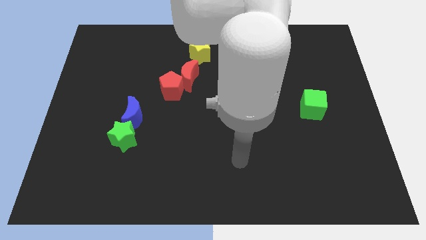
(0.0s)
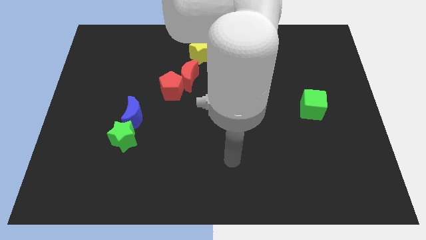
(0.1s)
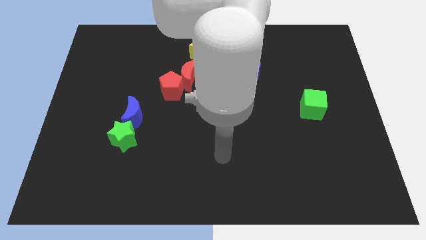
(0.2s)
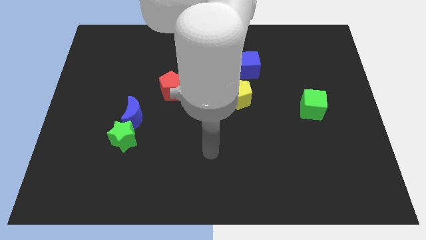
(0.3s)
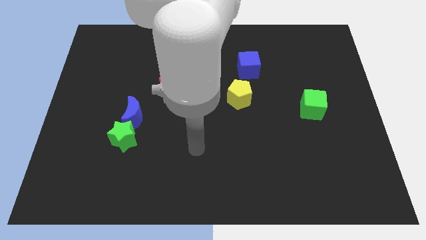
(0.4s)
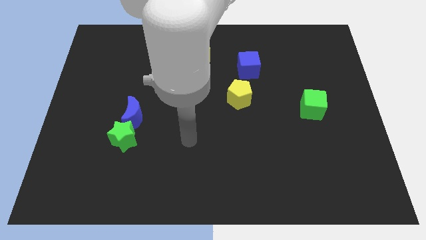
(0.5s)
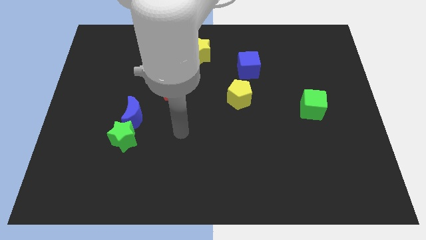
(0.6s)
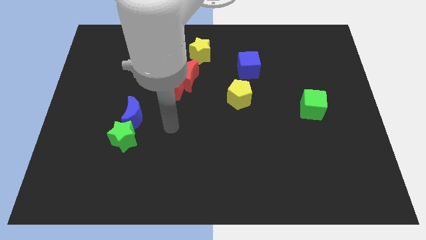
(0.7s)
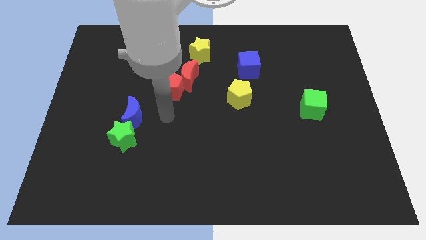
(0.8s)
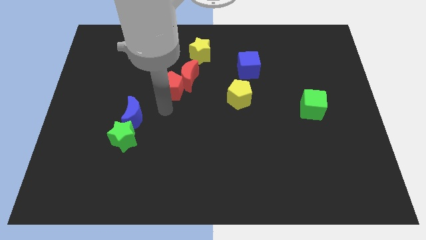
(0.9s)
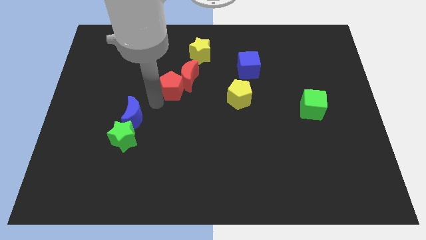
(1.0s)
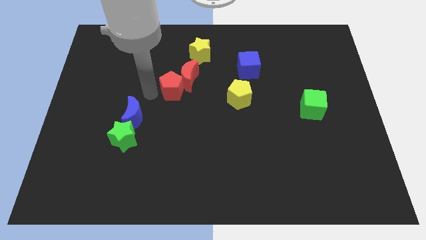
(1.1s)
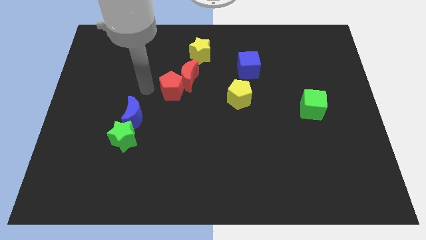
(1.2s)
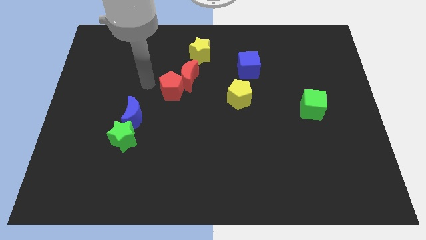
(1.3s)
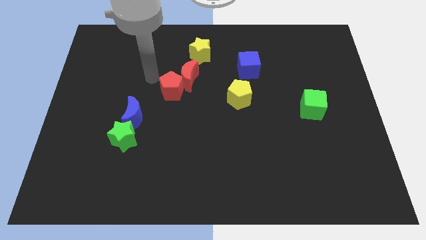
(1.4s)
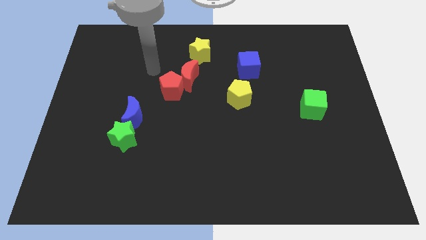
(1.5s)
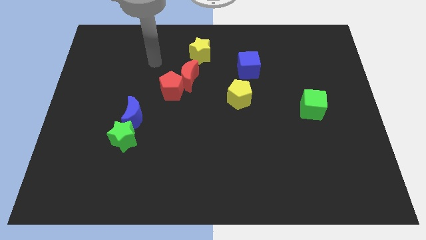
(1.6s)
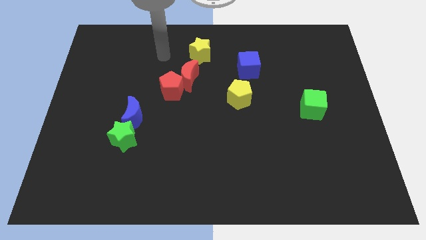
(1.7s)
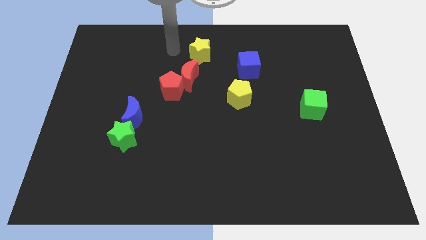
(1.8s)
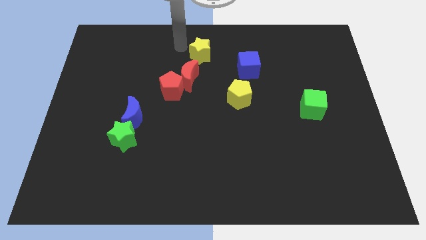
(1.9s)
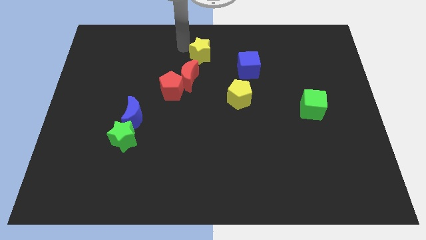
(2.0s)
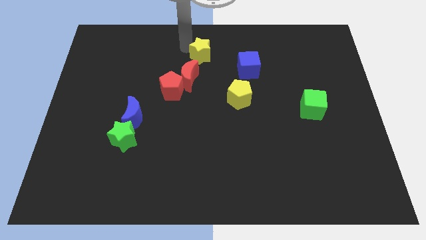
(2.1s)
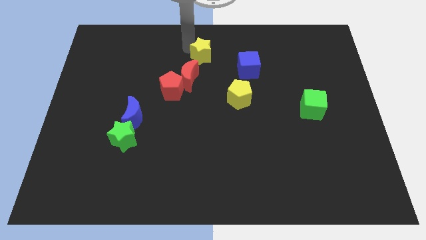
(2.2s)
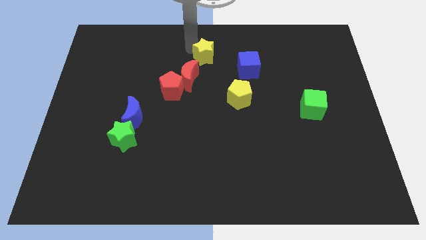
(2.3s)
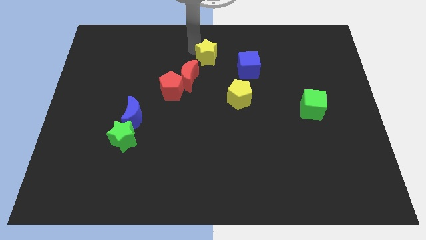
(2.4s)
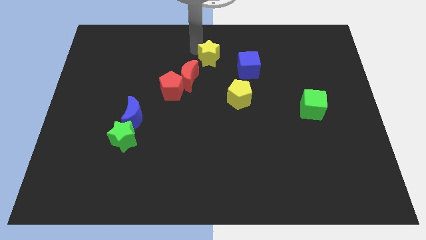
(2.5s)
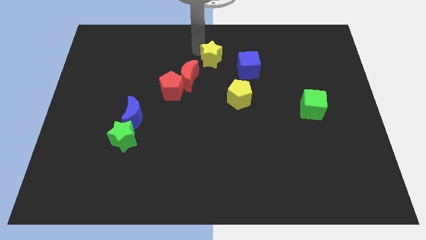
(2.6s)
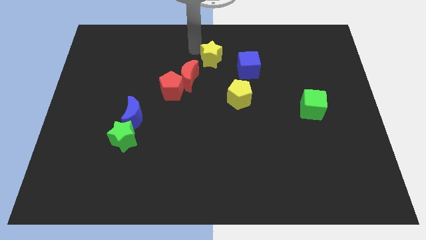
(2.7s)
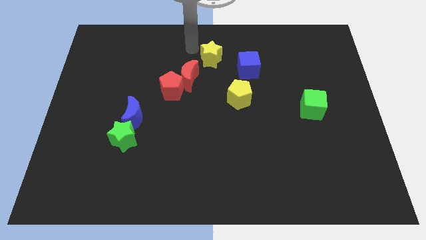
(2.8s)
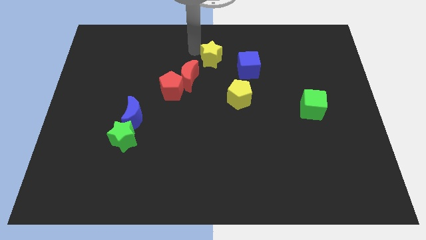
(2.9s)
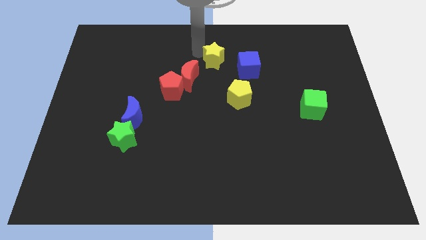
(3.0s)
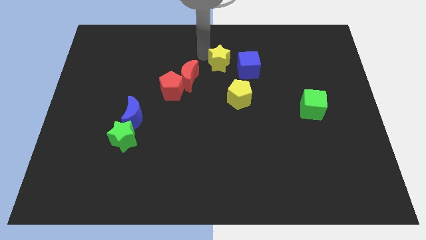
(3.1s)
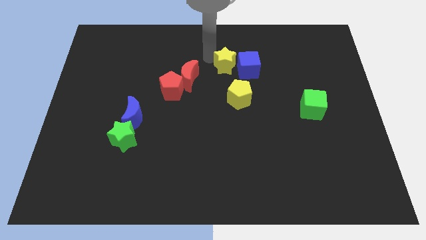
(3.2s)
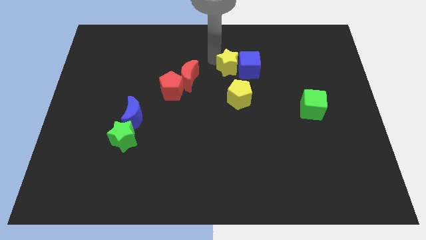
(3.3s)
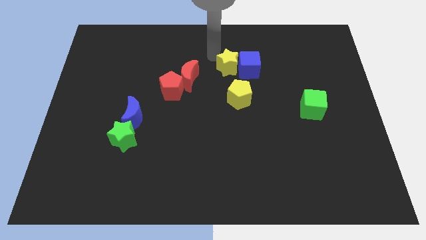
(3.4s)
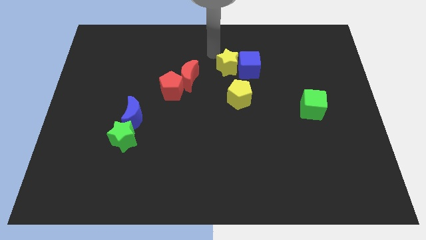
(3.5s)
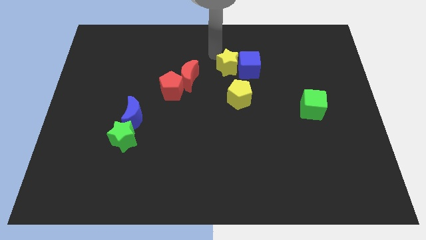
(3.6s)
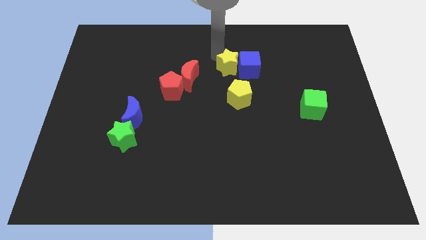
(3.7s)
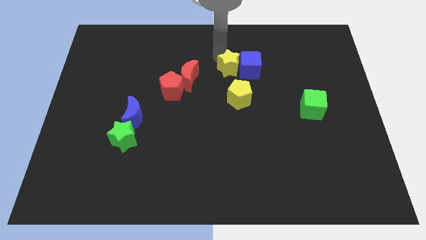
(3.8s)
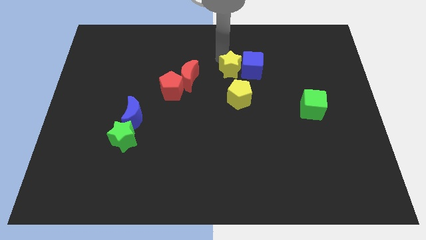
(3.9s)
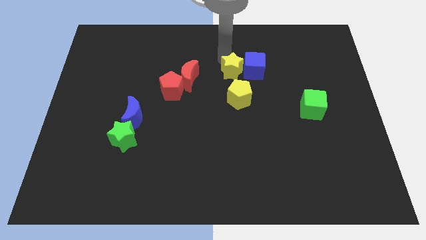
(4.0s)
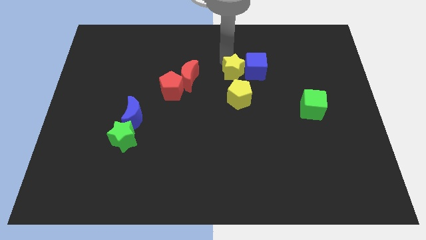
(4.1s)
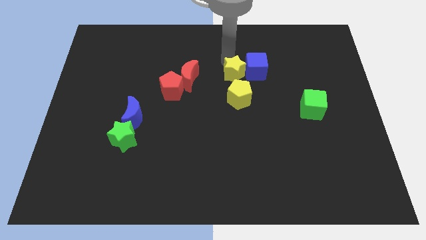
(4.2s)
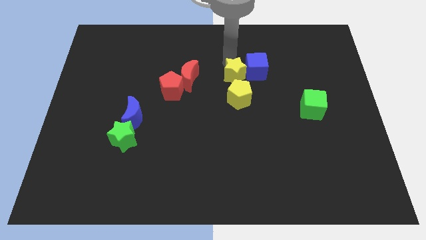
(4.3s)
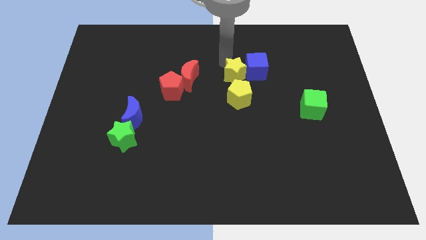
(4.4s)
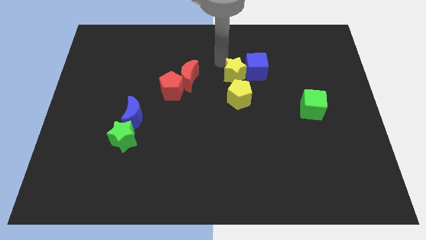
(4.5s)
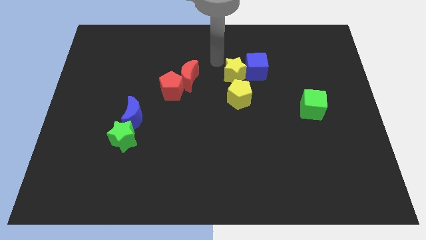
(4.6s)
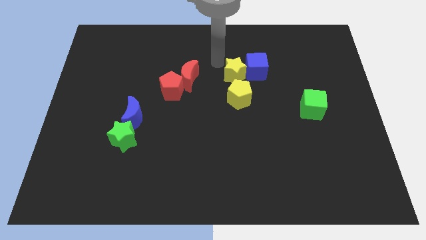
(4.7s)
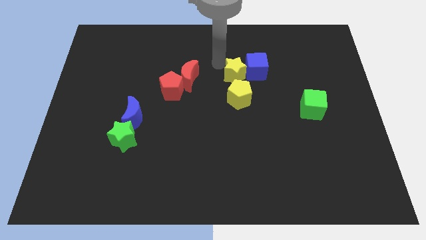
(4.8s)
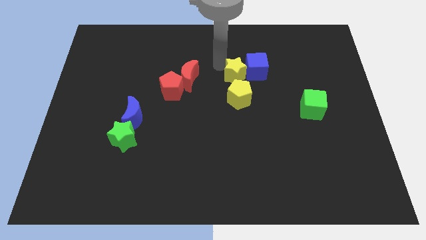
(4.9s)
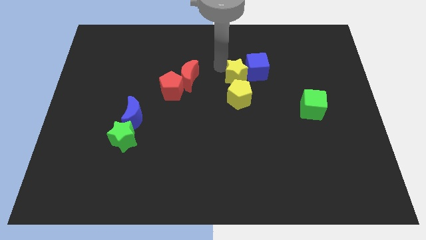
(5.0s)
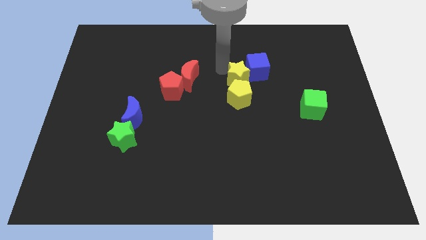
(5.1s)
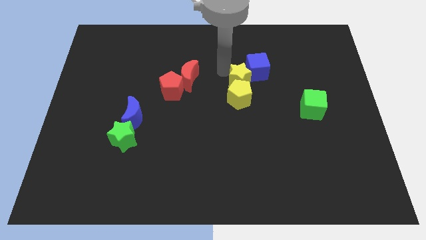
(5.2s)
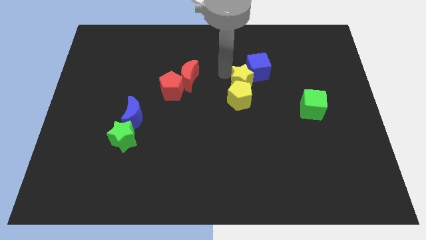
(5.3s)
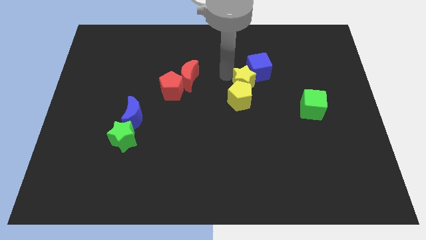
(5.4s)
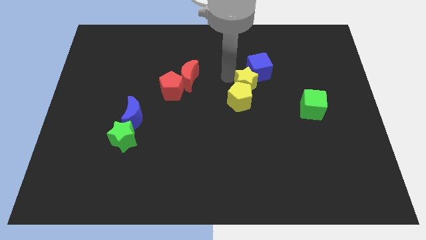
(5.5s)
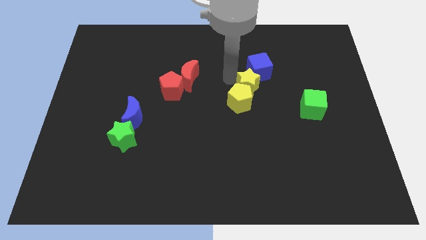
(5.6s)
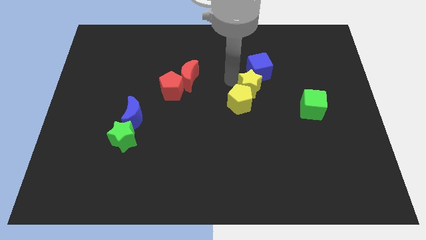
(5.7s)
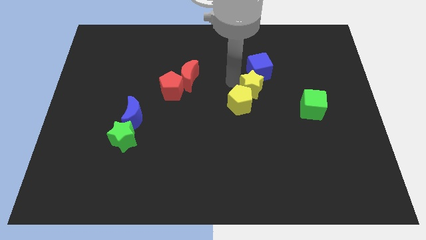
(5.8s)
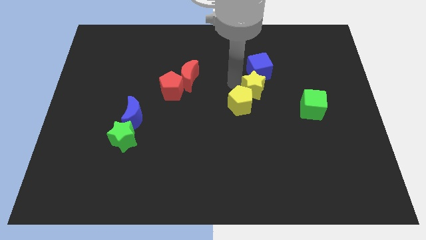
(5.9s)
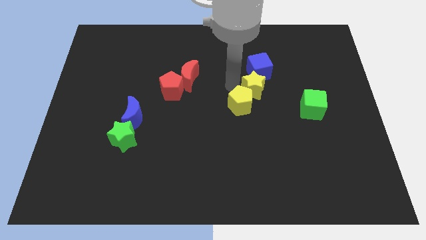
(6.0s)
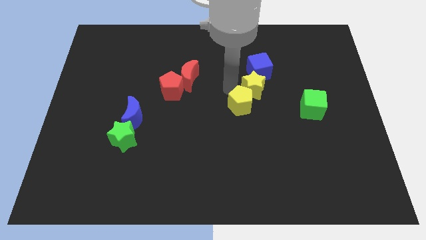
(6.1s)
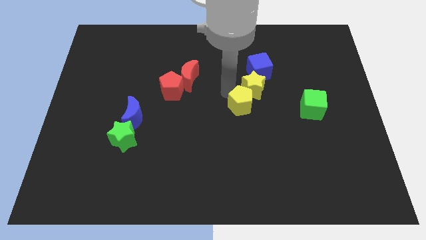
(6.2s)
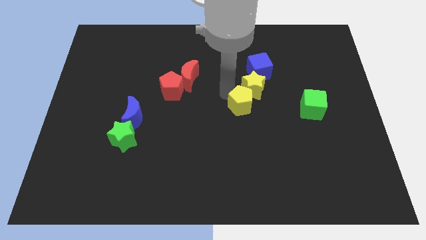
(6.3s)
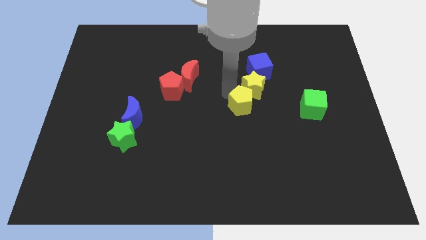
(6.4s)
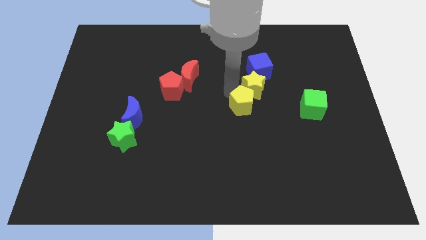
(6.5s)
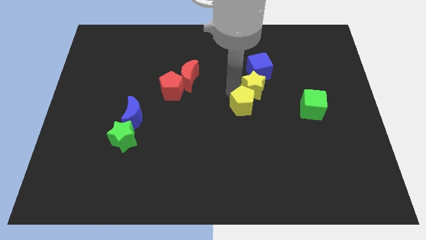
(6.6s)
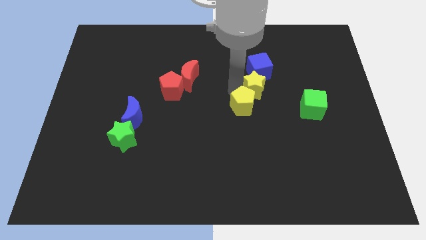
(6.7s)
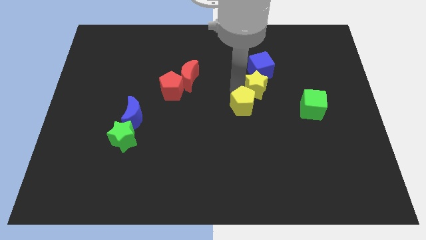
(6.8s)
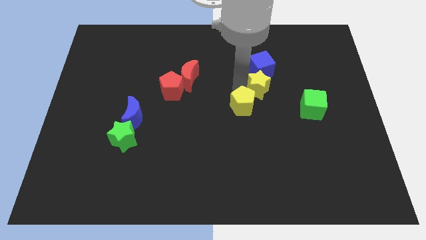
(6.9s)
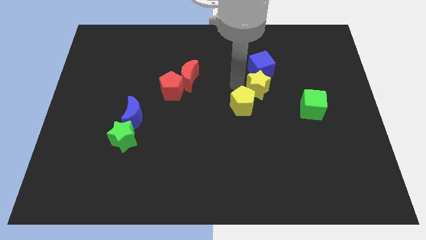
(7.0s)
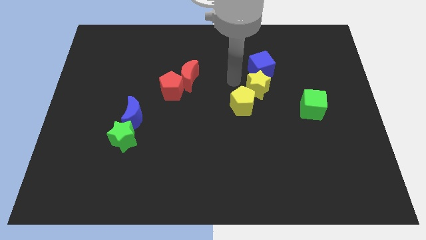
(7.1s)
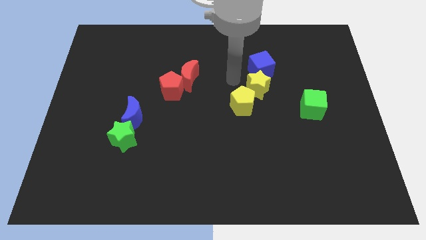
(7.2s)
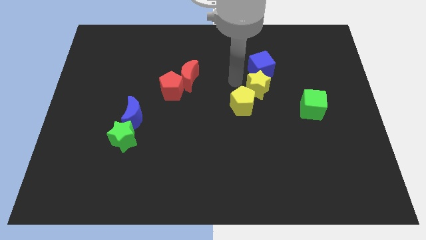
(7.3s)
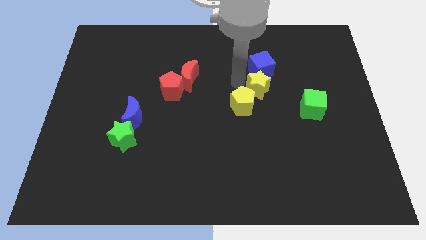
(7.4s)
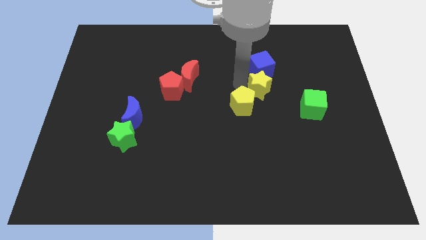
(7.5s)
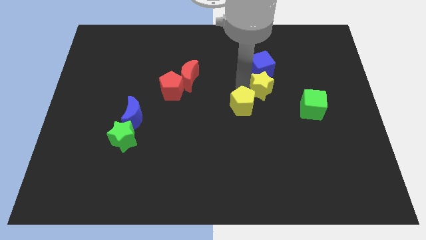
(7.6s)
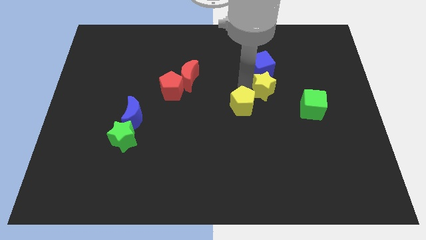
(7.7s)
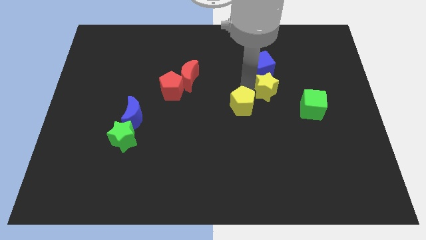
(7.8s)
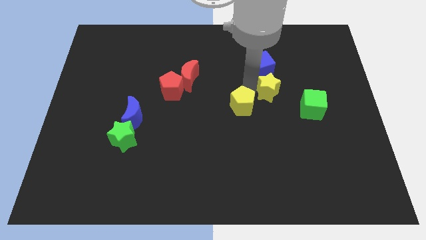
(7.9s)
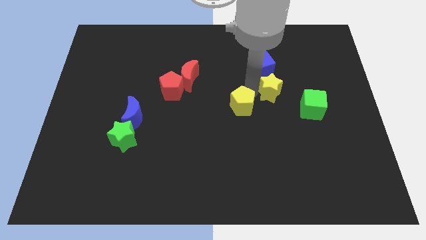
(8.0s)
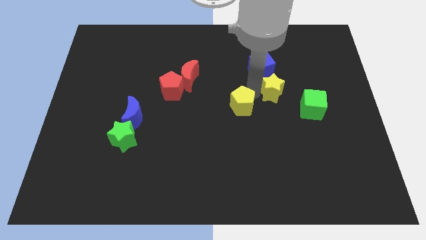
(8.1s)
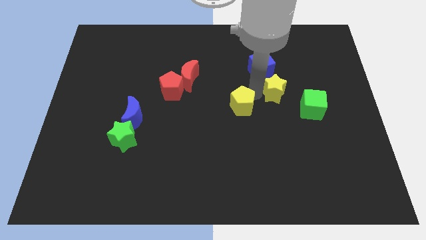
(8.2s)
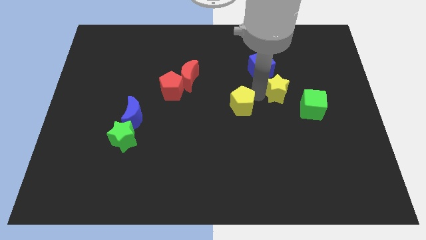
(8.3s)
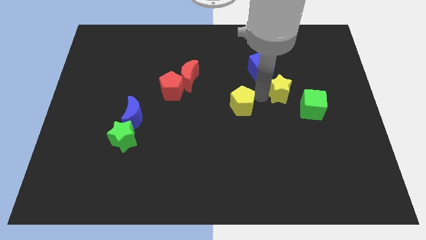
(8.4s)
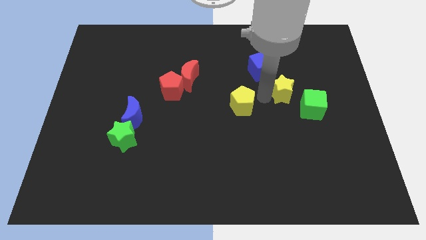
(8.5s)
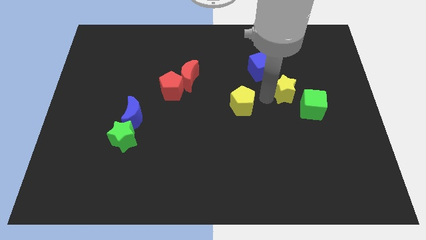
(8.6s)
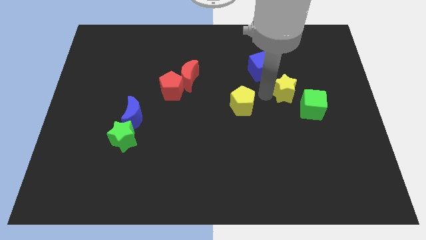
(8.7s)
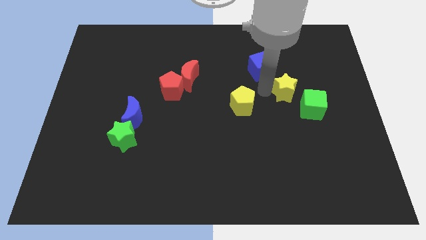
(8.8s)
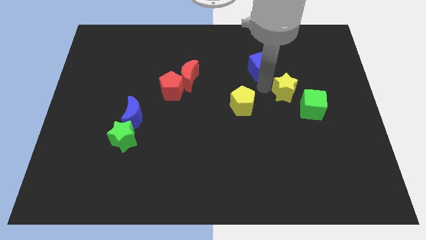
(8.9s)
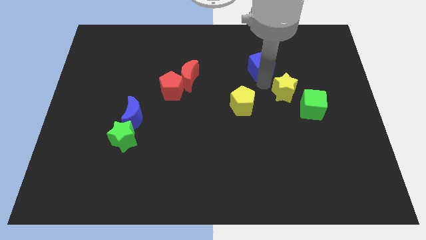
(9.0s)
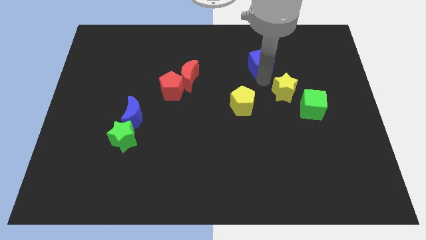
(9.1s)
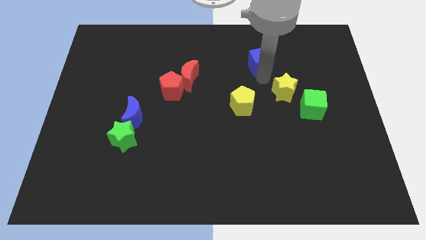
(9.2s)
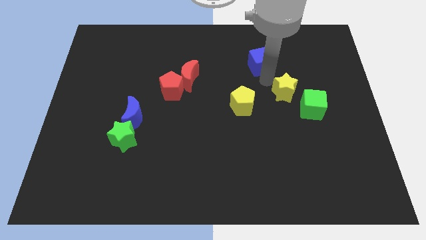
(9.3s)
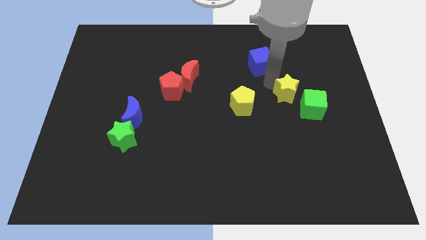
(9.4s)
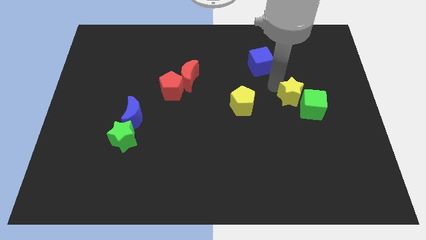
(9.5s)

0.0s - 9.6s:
move the yellow star close to the green cube
